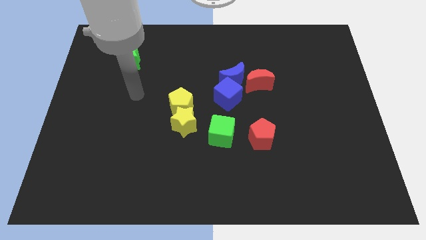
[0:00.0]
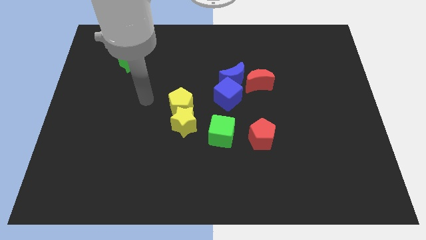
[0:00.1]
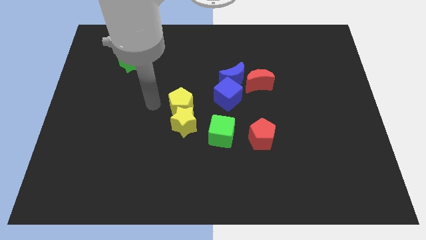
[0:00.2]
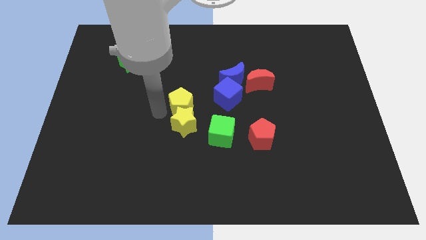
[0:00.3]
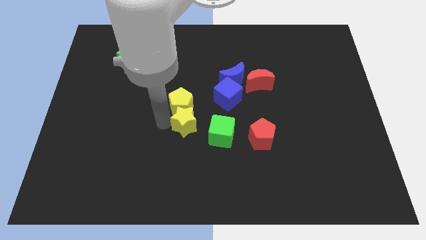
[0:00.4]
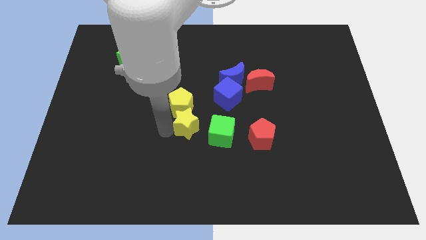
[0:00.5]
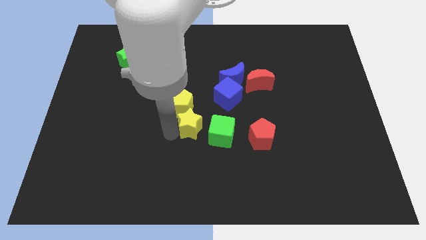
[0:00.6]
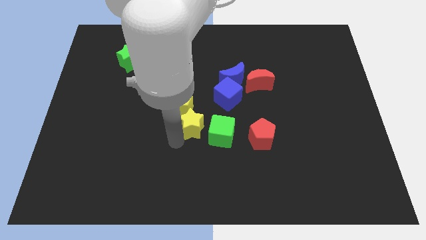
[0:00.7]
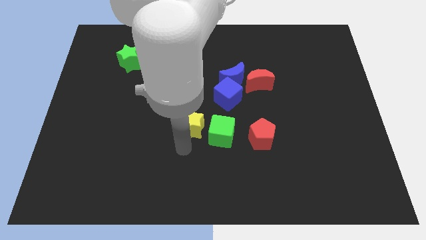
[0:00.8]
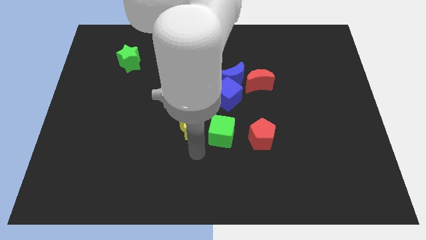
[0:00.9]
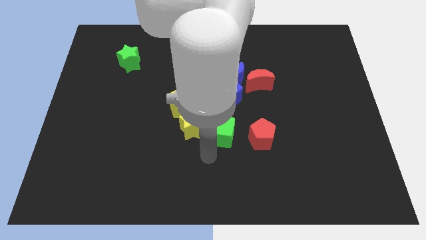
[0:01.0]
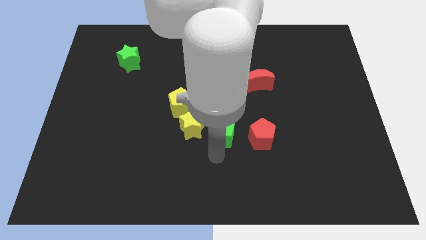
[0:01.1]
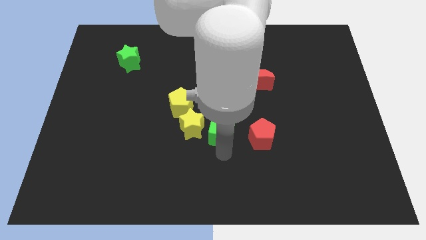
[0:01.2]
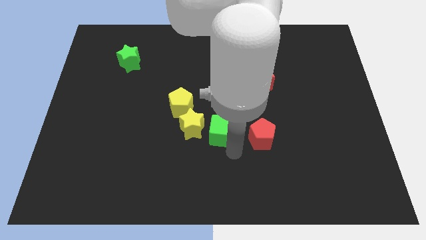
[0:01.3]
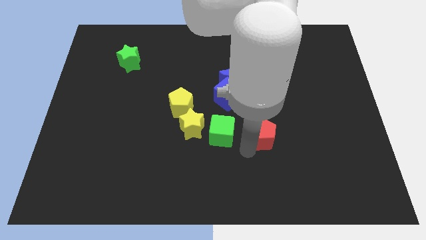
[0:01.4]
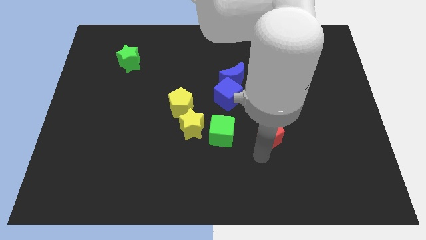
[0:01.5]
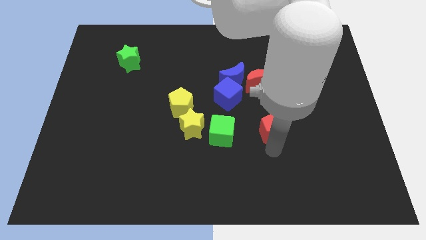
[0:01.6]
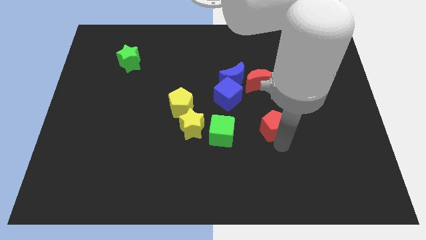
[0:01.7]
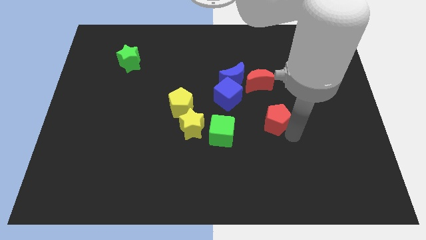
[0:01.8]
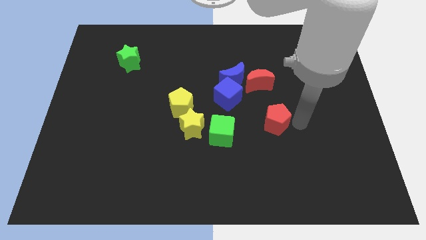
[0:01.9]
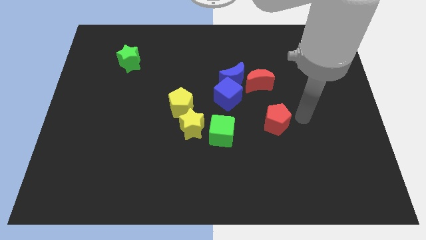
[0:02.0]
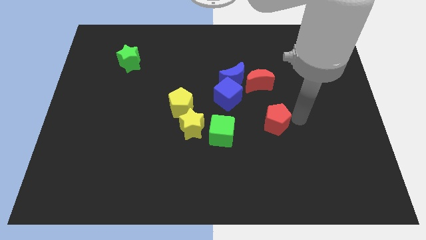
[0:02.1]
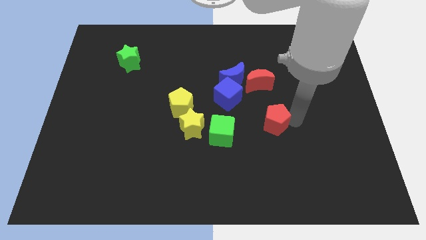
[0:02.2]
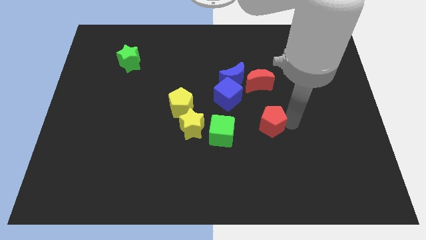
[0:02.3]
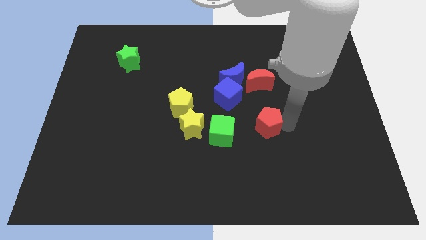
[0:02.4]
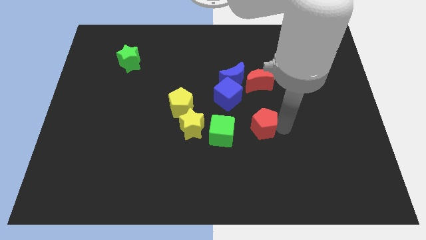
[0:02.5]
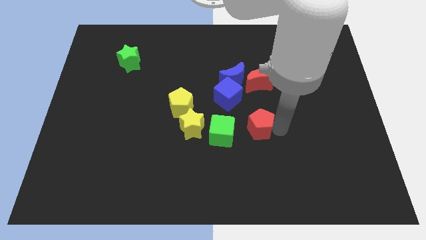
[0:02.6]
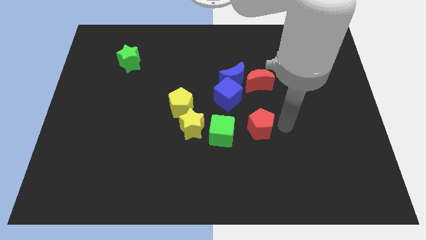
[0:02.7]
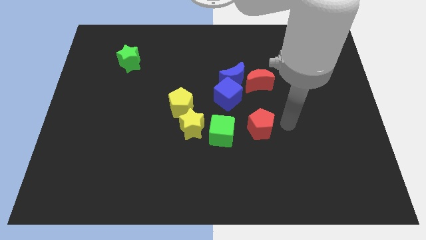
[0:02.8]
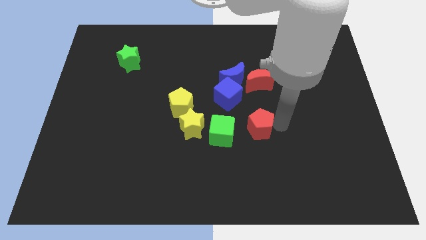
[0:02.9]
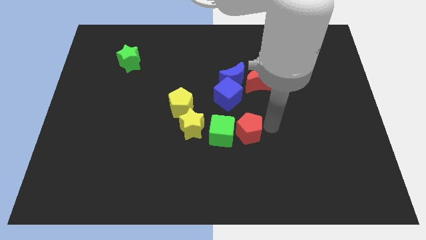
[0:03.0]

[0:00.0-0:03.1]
put the red pentagon to the green cube

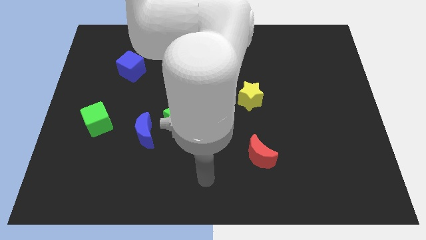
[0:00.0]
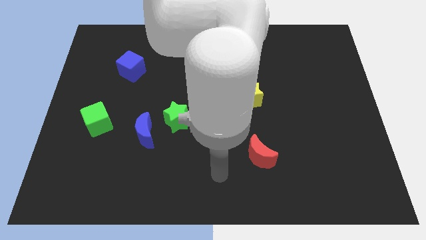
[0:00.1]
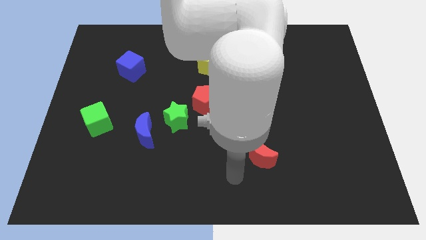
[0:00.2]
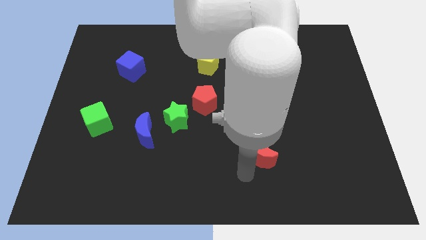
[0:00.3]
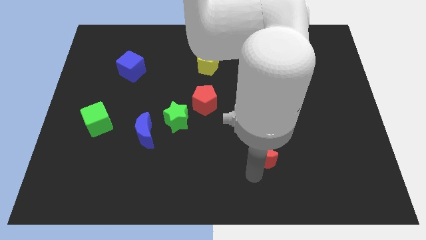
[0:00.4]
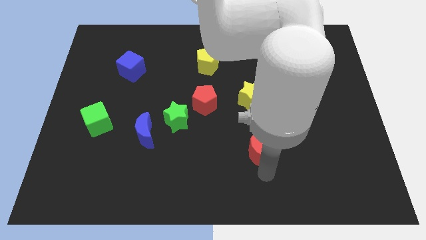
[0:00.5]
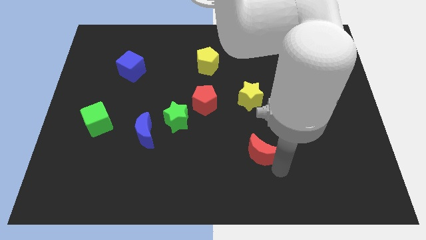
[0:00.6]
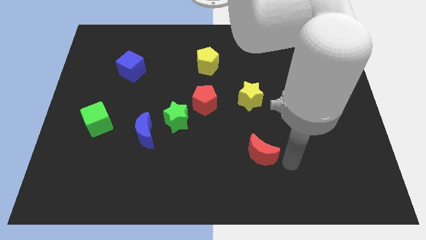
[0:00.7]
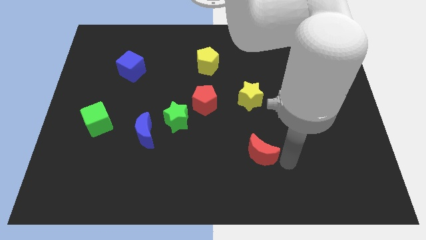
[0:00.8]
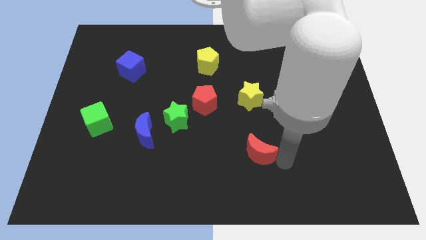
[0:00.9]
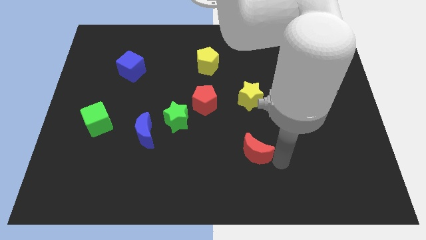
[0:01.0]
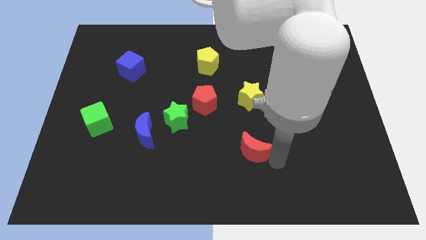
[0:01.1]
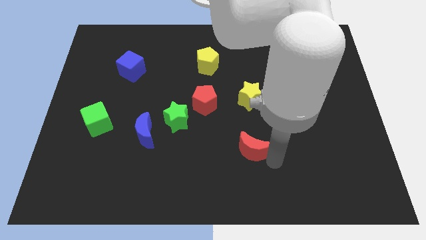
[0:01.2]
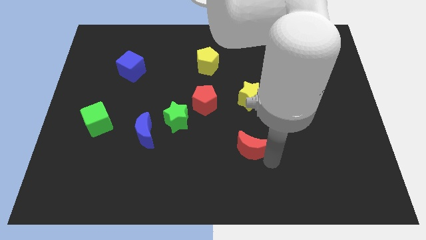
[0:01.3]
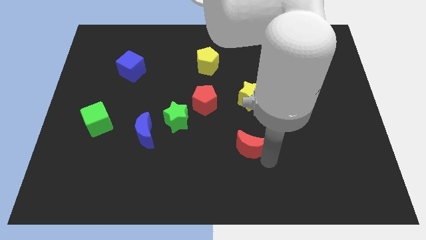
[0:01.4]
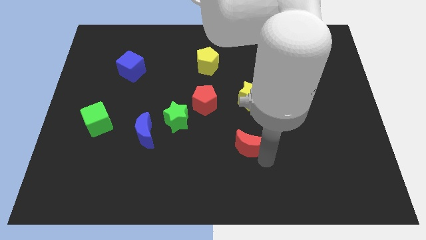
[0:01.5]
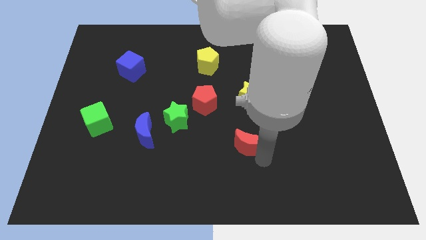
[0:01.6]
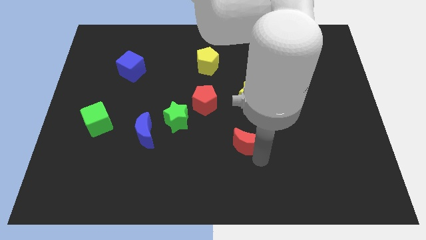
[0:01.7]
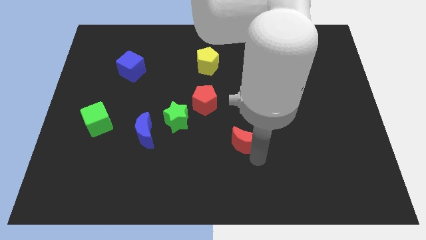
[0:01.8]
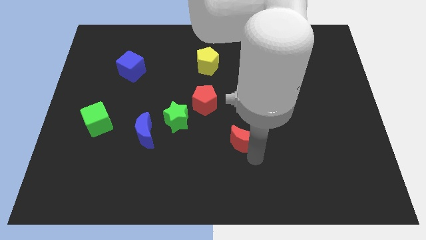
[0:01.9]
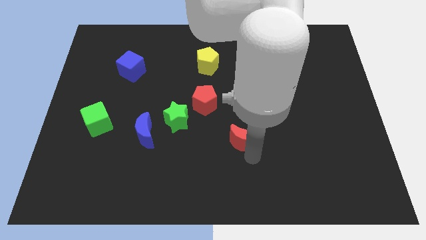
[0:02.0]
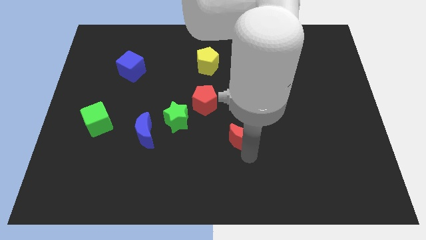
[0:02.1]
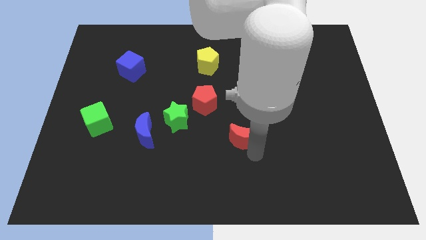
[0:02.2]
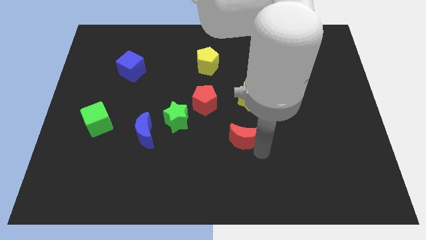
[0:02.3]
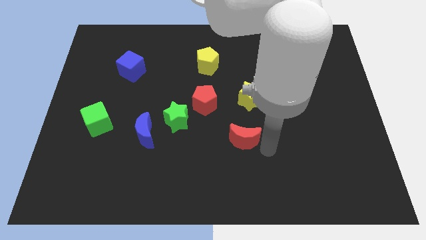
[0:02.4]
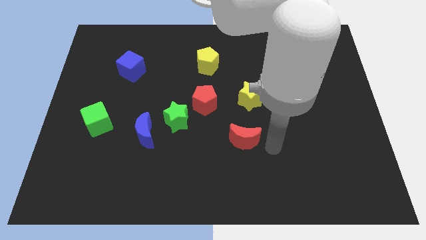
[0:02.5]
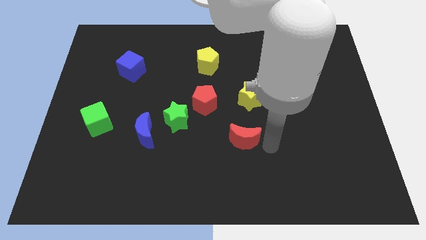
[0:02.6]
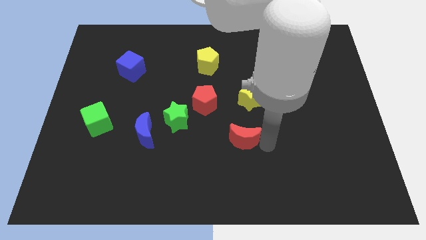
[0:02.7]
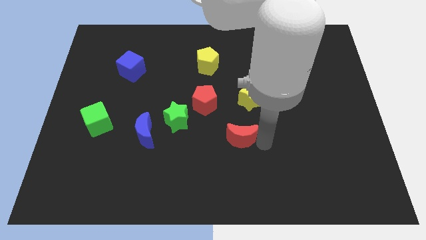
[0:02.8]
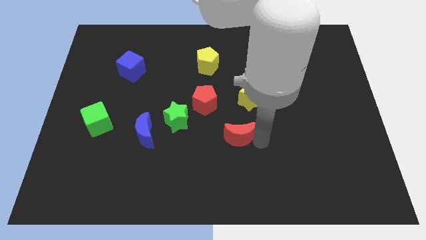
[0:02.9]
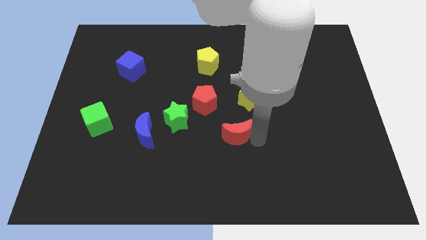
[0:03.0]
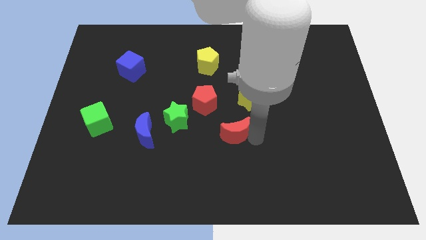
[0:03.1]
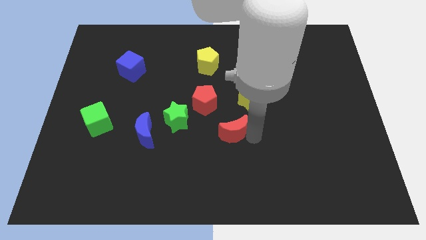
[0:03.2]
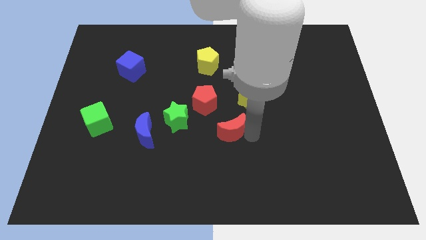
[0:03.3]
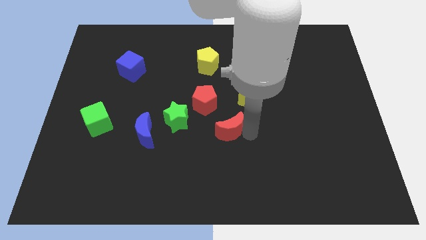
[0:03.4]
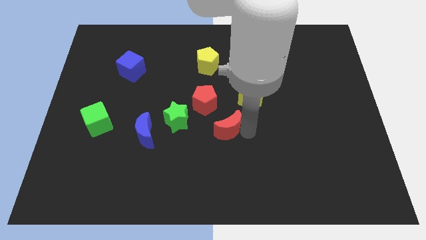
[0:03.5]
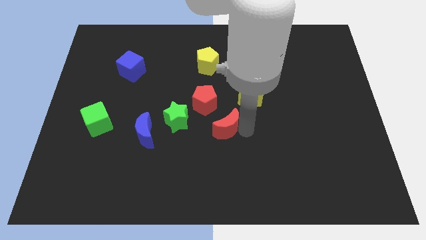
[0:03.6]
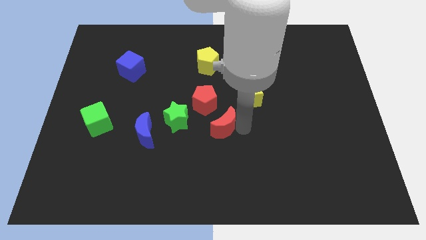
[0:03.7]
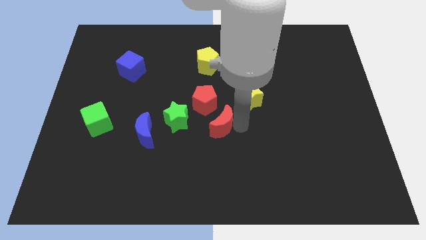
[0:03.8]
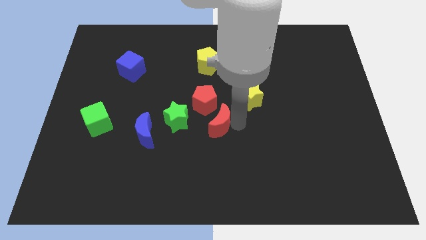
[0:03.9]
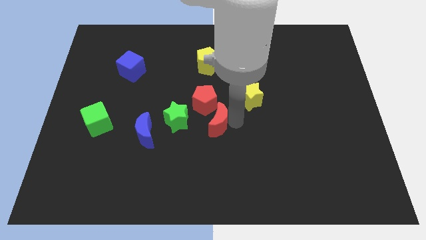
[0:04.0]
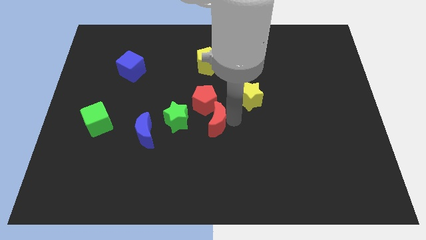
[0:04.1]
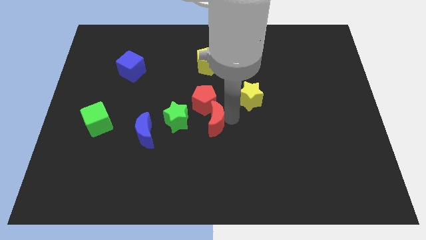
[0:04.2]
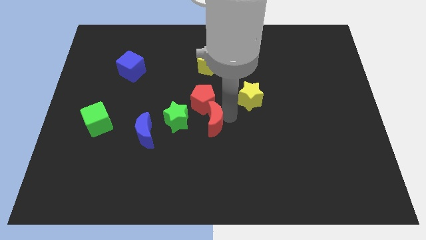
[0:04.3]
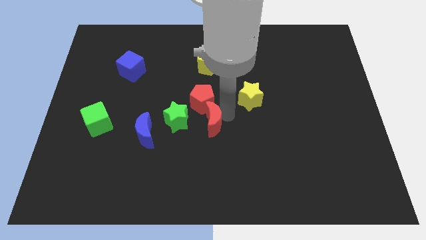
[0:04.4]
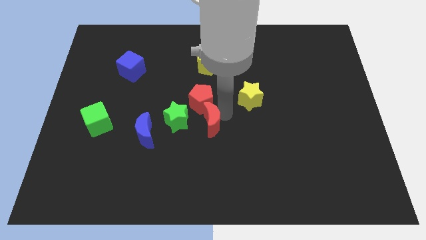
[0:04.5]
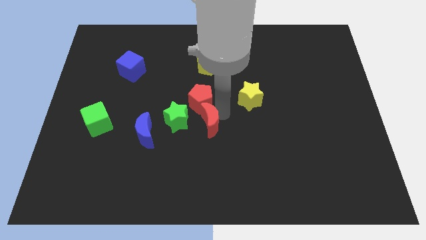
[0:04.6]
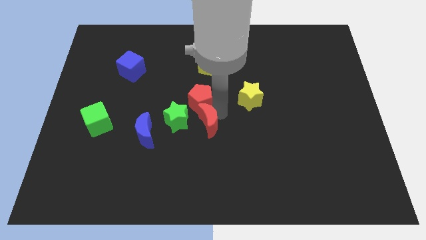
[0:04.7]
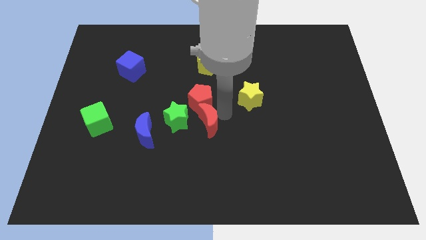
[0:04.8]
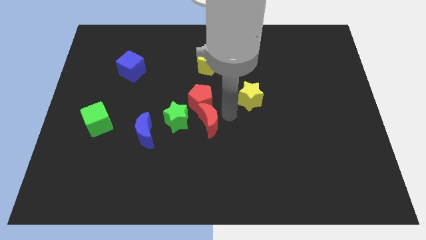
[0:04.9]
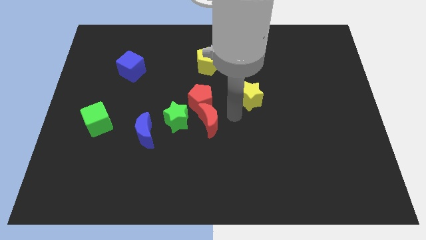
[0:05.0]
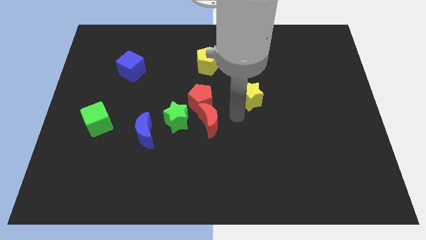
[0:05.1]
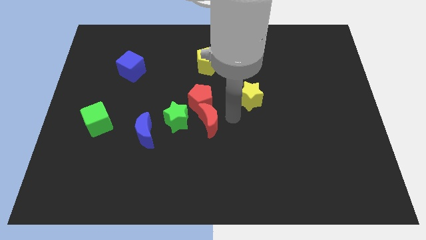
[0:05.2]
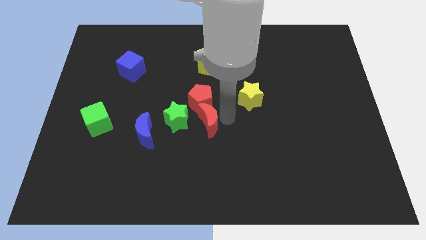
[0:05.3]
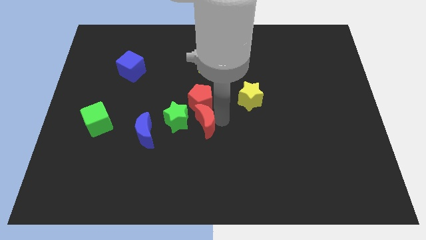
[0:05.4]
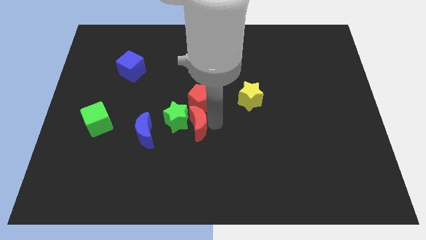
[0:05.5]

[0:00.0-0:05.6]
push the red moon towards the green star
